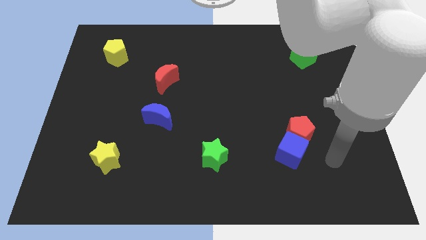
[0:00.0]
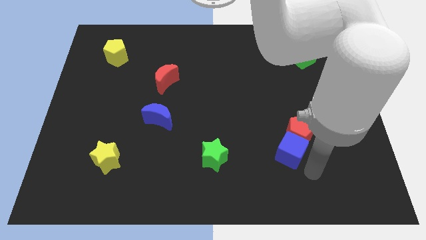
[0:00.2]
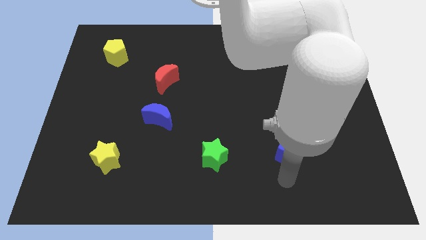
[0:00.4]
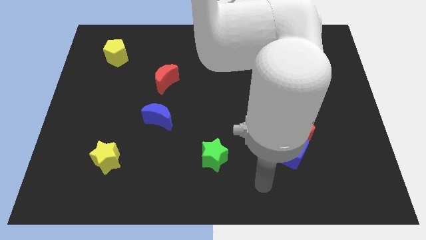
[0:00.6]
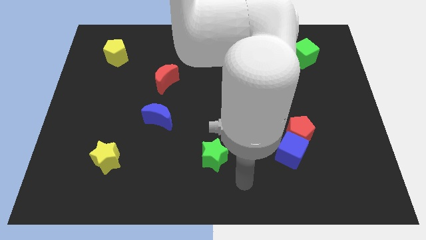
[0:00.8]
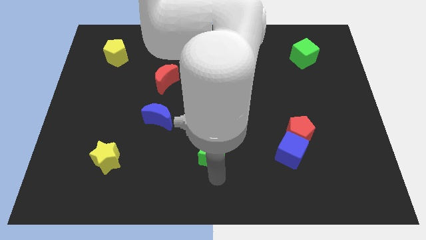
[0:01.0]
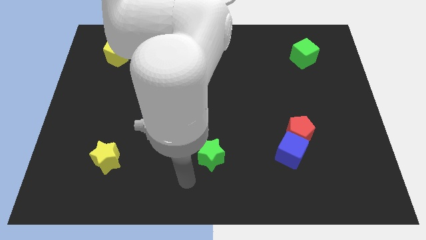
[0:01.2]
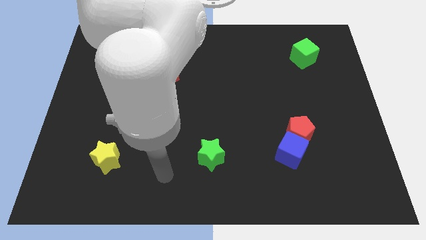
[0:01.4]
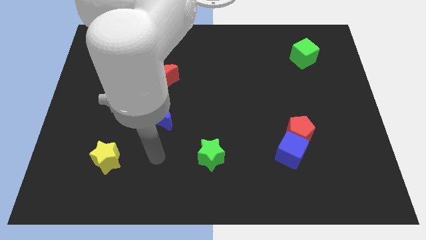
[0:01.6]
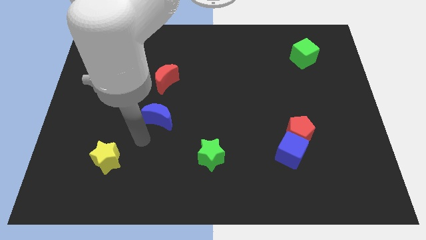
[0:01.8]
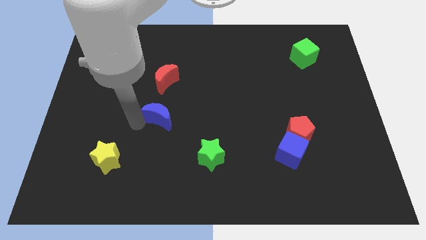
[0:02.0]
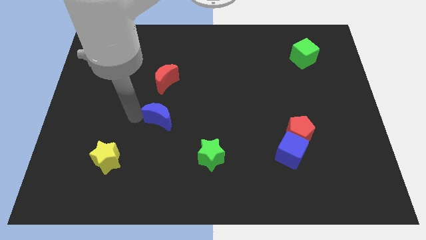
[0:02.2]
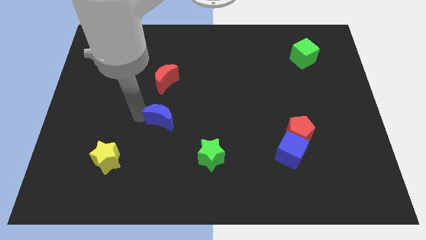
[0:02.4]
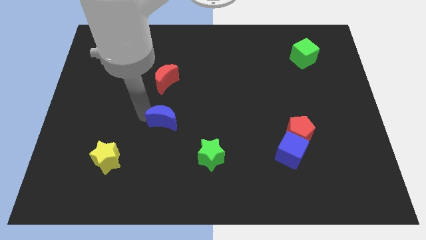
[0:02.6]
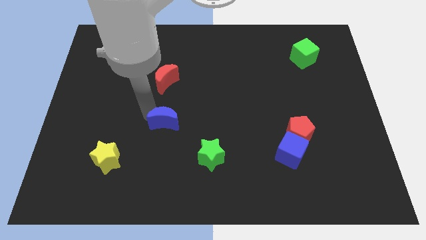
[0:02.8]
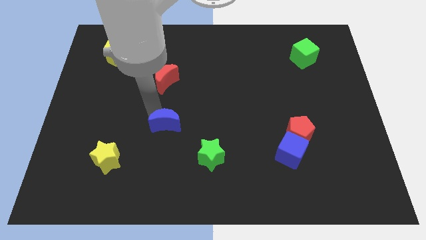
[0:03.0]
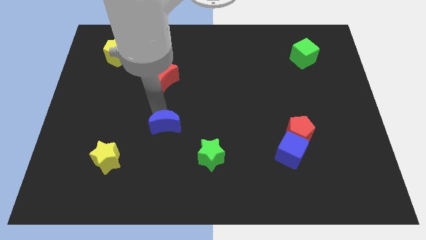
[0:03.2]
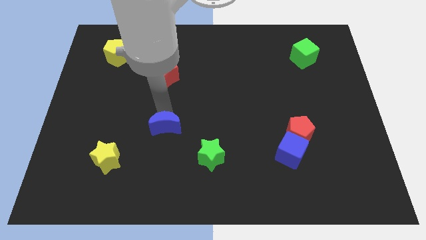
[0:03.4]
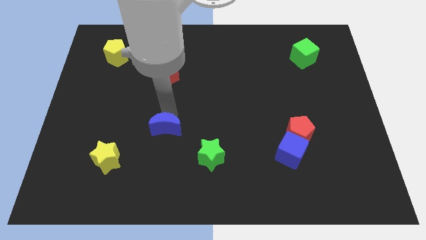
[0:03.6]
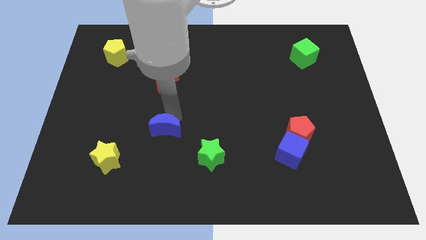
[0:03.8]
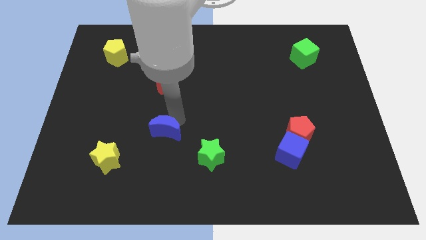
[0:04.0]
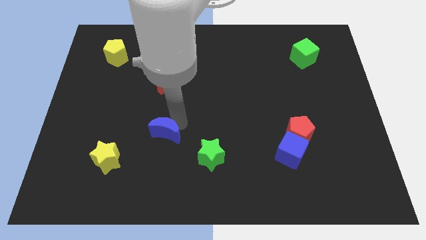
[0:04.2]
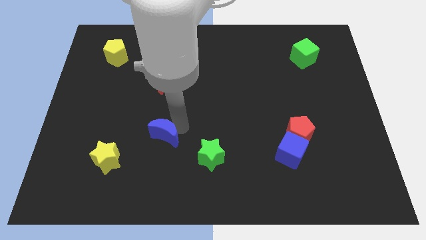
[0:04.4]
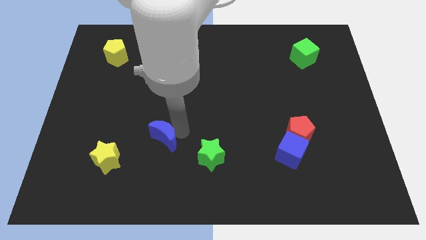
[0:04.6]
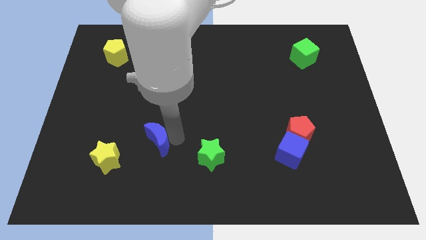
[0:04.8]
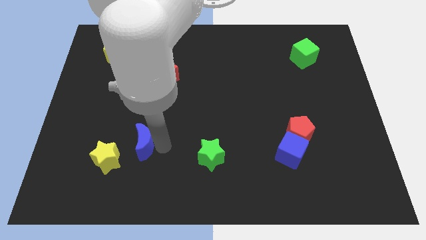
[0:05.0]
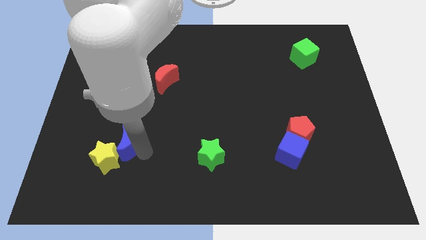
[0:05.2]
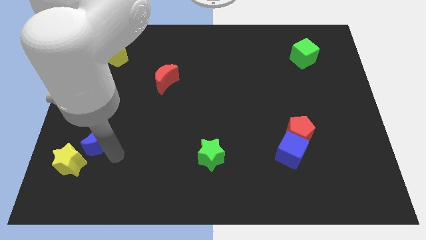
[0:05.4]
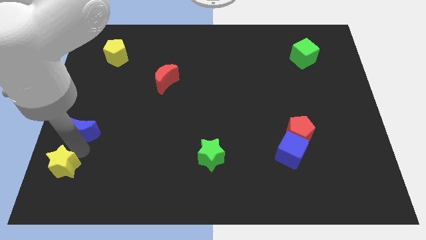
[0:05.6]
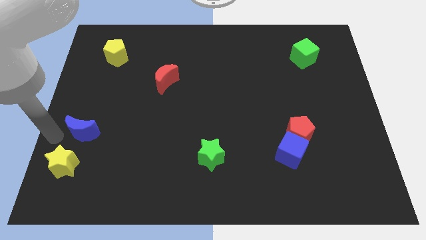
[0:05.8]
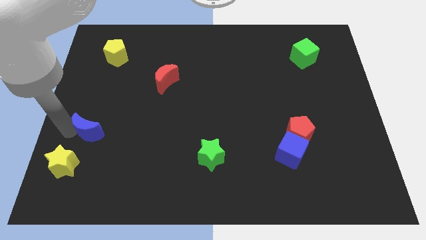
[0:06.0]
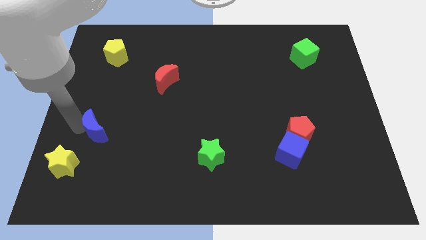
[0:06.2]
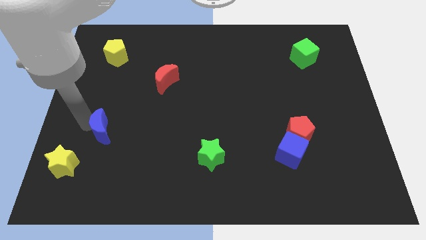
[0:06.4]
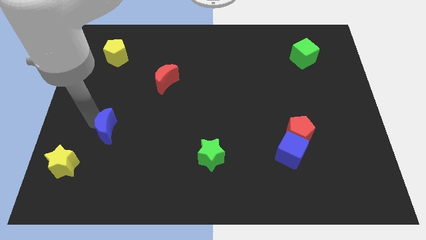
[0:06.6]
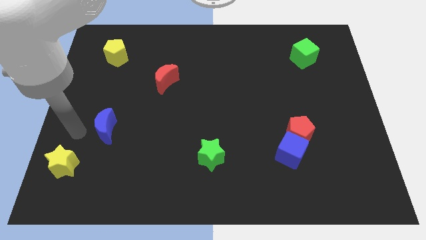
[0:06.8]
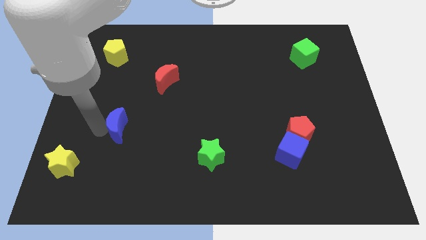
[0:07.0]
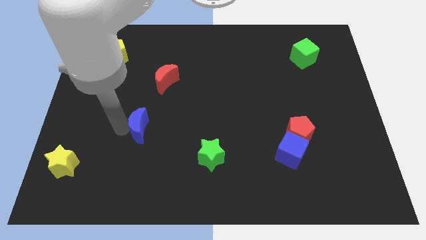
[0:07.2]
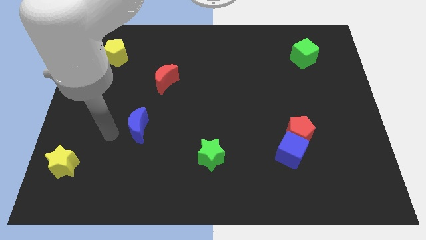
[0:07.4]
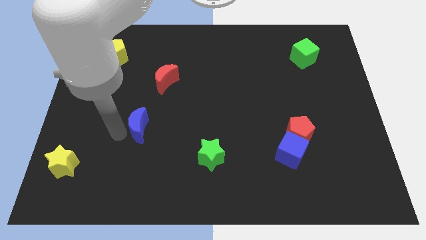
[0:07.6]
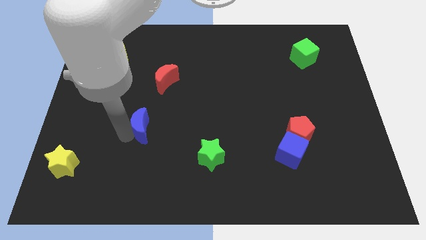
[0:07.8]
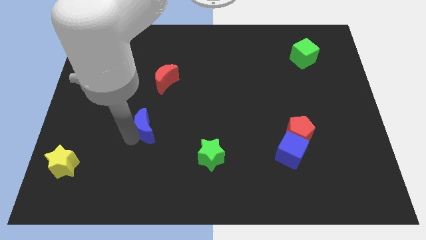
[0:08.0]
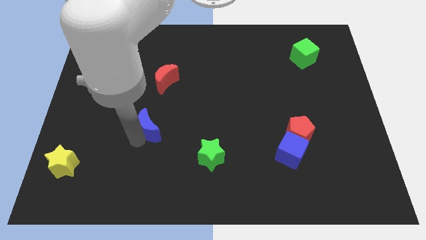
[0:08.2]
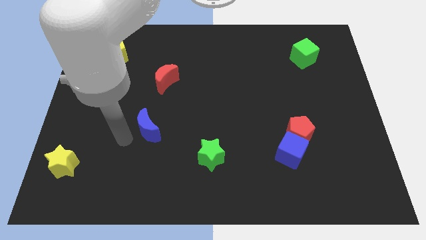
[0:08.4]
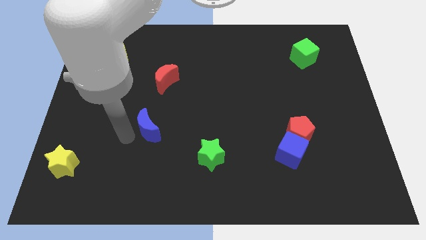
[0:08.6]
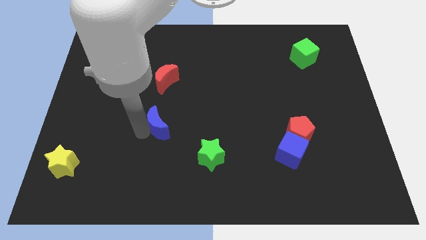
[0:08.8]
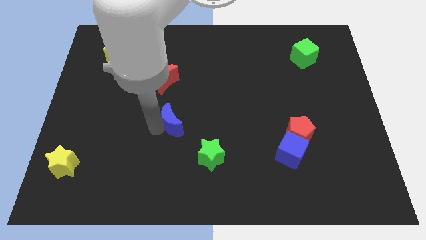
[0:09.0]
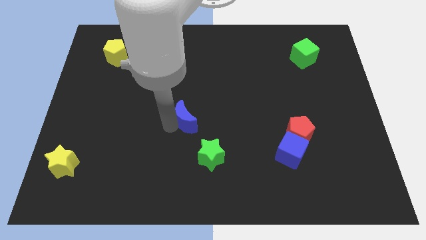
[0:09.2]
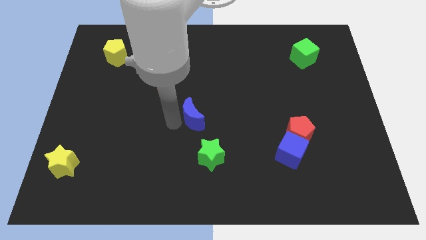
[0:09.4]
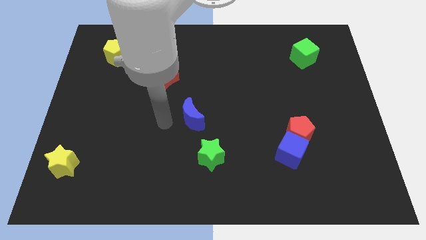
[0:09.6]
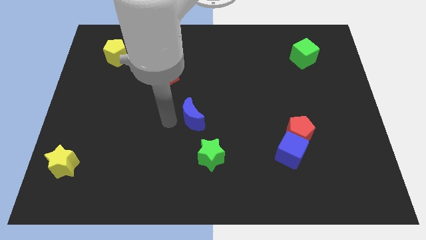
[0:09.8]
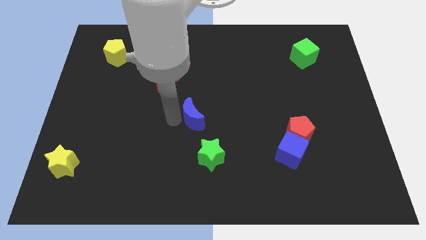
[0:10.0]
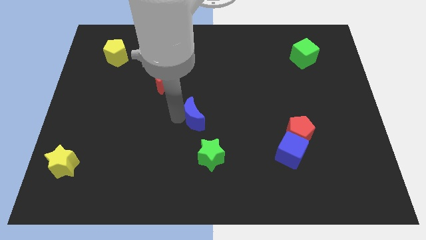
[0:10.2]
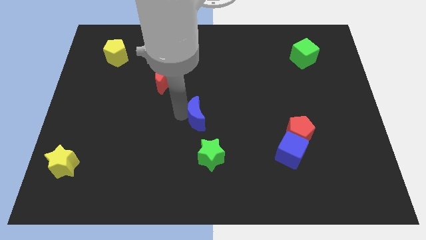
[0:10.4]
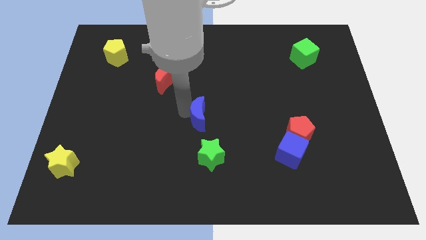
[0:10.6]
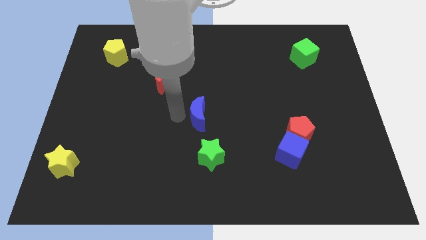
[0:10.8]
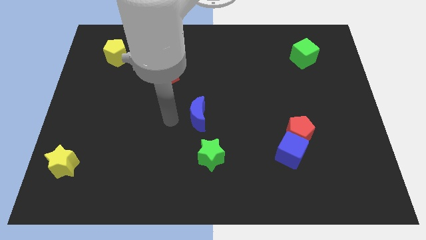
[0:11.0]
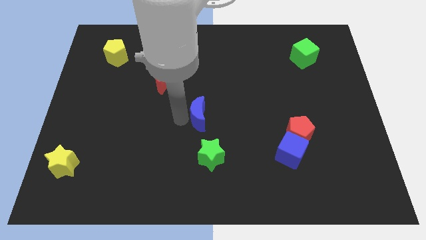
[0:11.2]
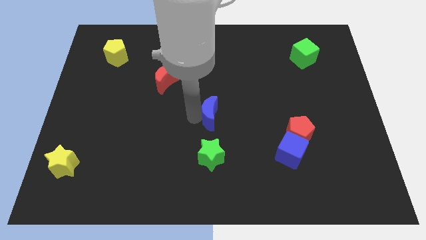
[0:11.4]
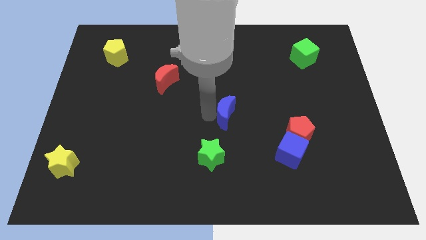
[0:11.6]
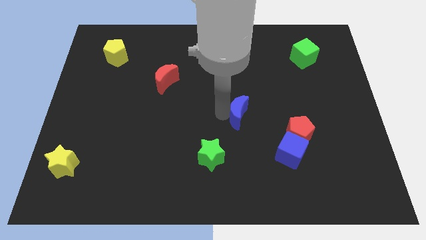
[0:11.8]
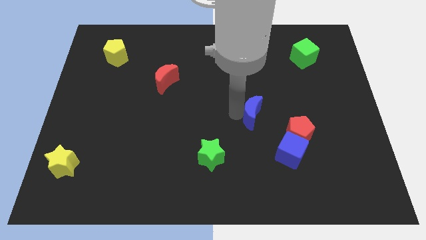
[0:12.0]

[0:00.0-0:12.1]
slide the blue moon to the right

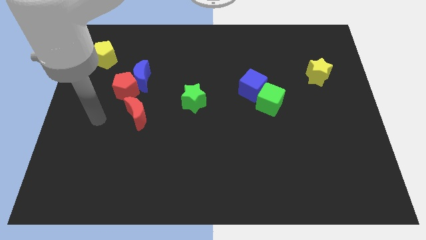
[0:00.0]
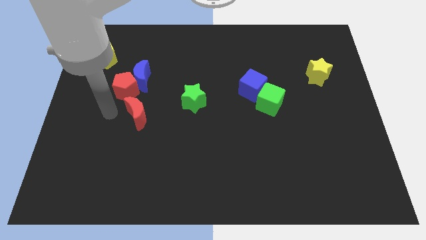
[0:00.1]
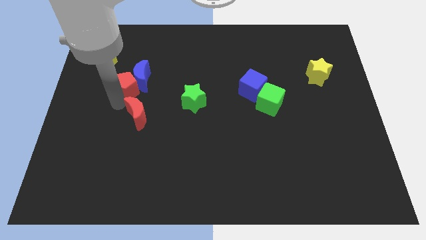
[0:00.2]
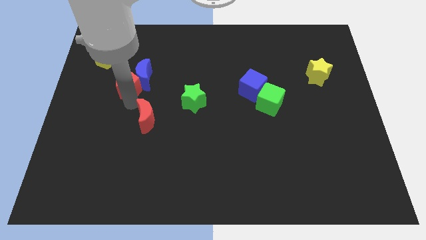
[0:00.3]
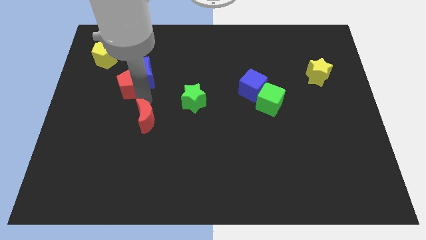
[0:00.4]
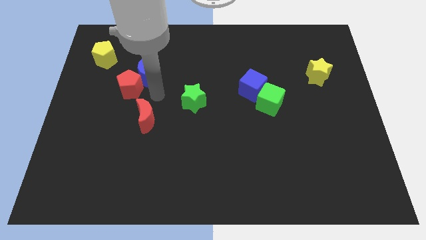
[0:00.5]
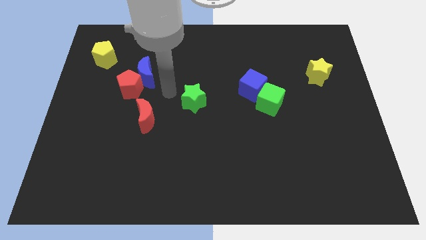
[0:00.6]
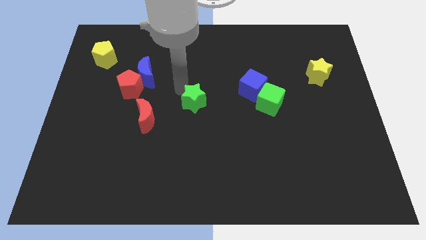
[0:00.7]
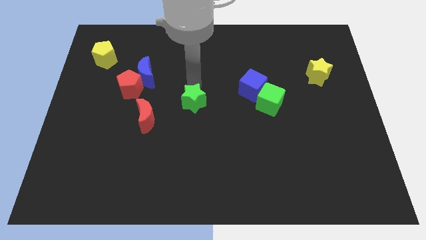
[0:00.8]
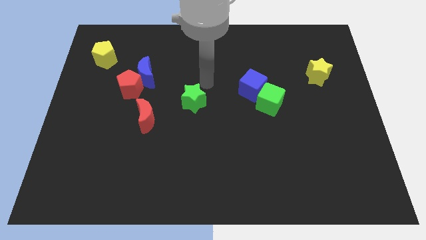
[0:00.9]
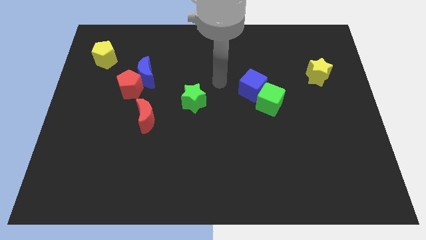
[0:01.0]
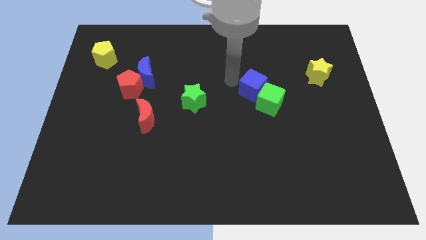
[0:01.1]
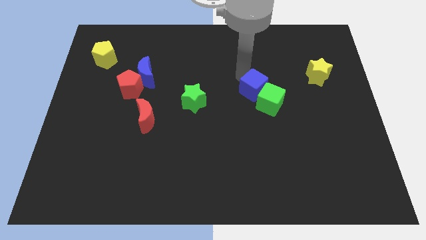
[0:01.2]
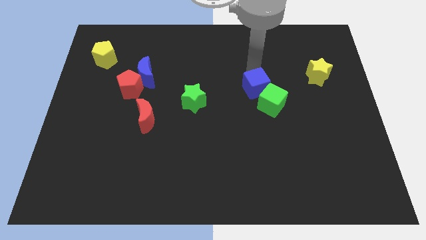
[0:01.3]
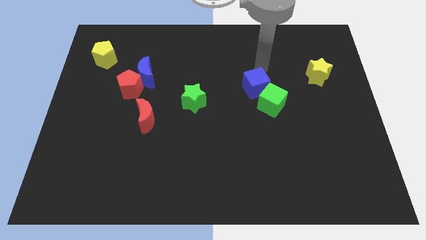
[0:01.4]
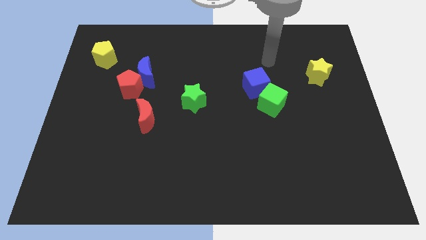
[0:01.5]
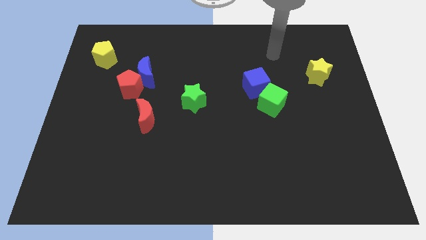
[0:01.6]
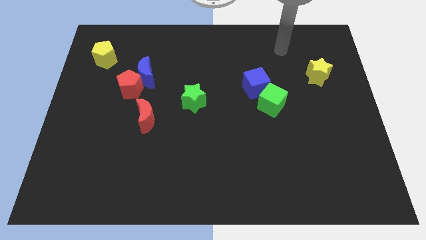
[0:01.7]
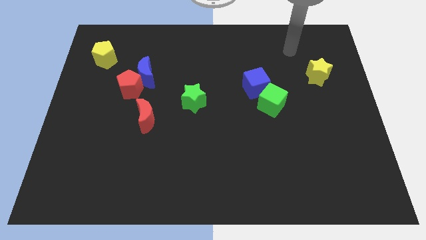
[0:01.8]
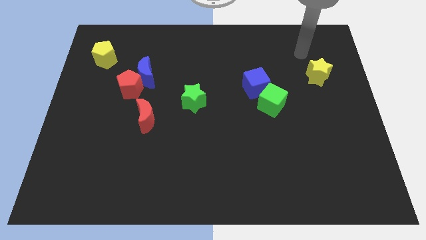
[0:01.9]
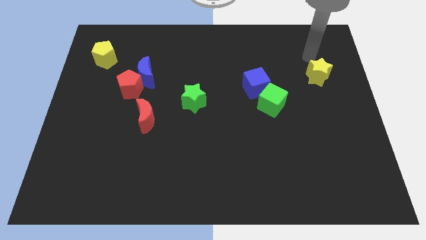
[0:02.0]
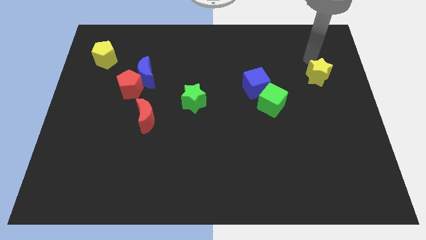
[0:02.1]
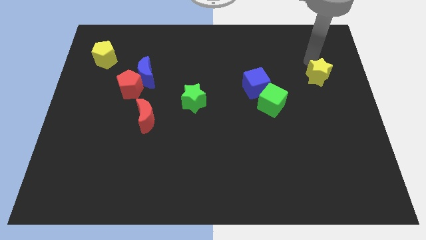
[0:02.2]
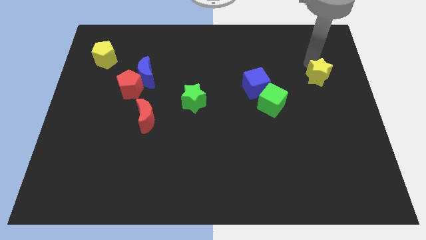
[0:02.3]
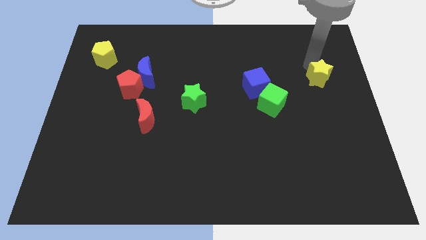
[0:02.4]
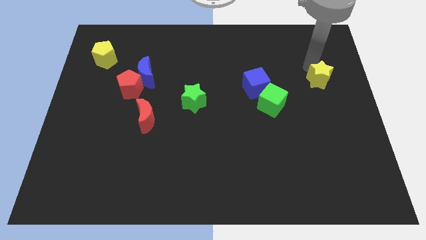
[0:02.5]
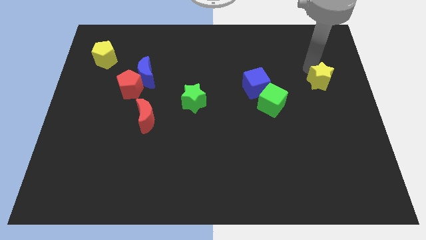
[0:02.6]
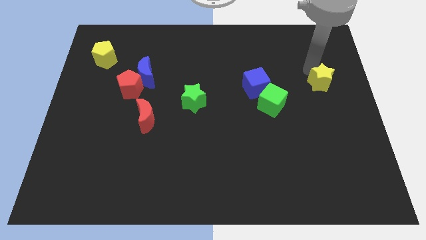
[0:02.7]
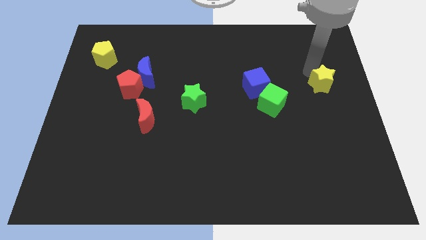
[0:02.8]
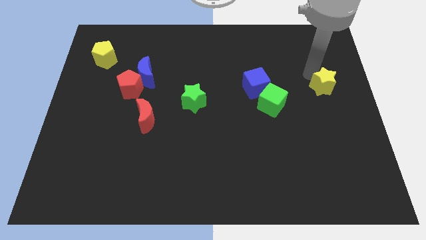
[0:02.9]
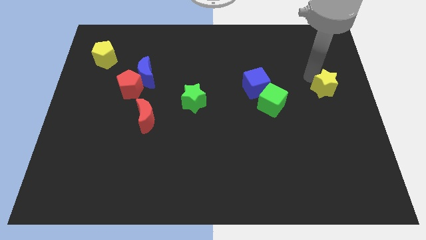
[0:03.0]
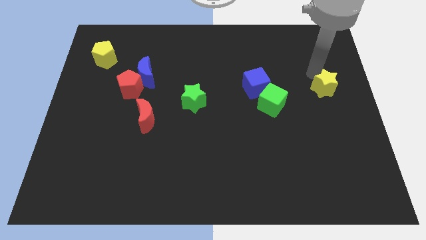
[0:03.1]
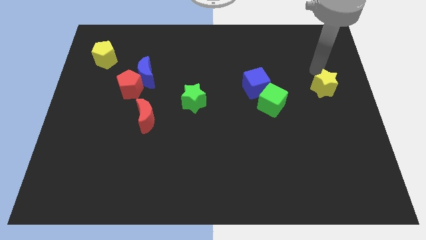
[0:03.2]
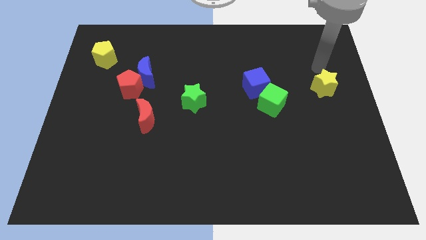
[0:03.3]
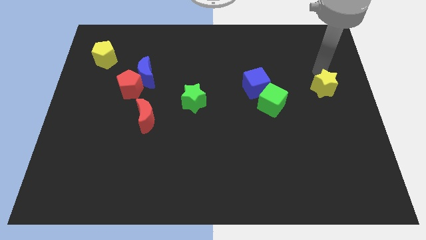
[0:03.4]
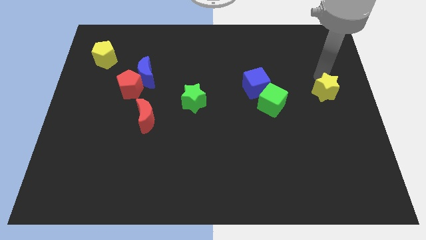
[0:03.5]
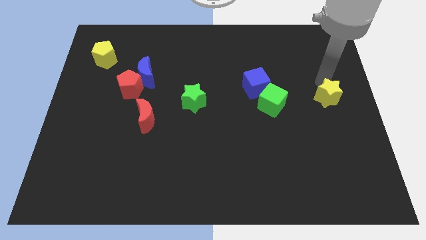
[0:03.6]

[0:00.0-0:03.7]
slightly push the yellow star downwards
